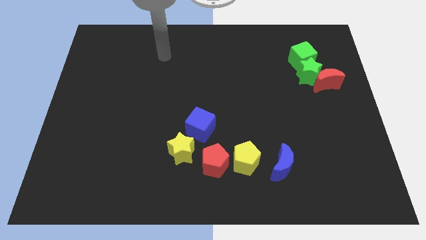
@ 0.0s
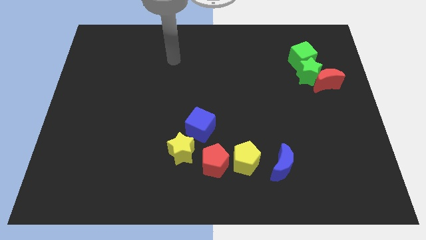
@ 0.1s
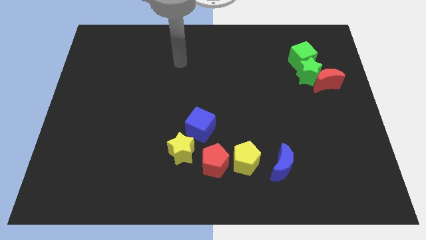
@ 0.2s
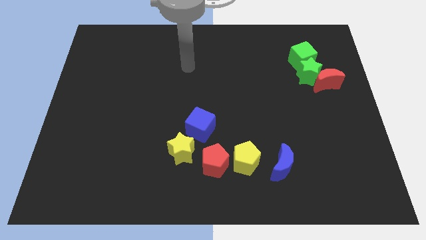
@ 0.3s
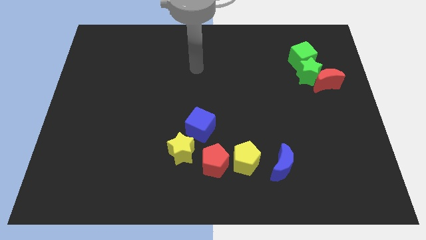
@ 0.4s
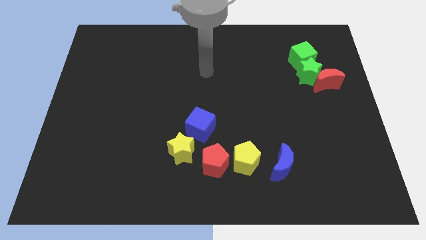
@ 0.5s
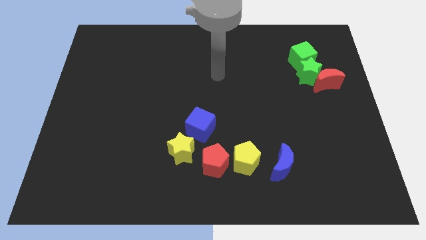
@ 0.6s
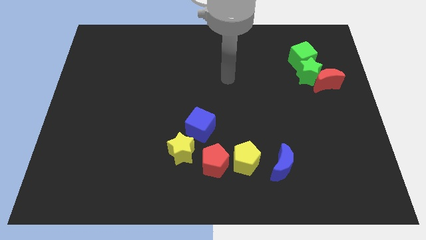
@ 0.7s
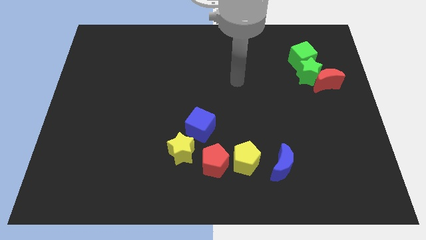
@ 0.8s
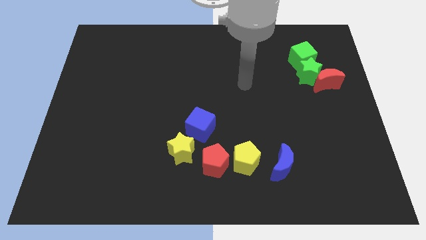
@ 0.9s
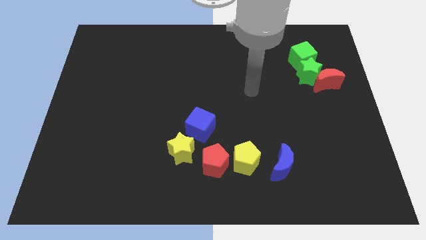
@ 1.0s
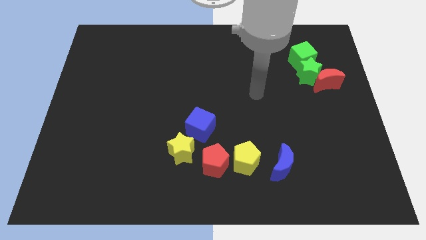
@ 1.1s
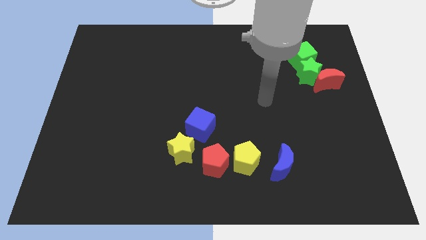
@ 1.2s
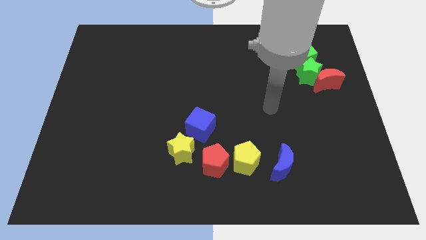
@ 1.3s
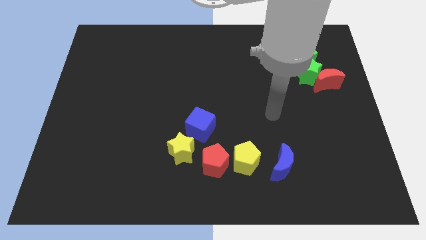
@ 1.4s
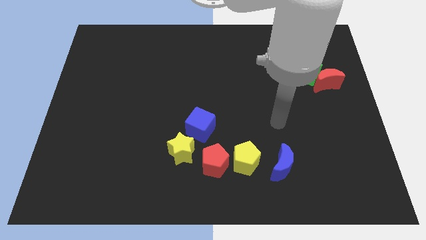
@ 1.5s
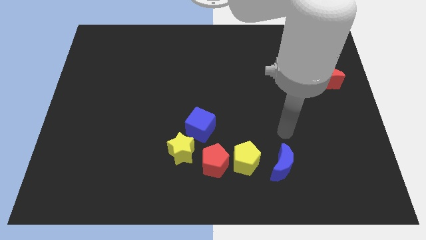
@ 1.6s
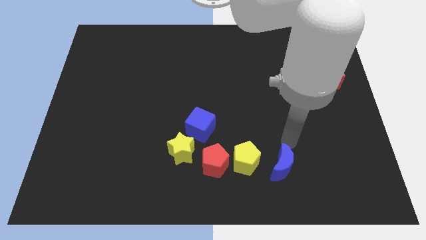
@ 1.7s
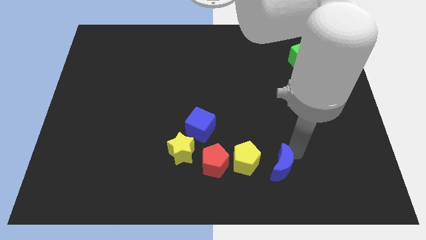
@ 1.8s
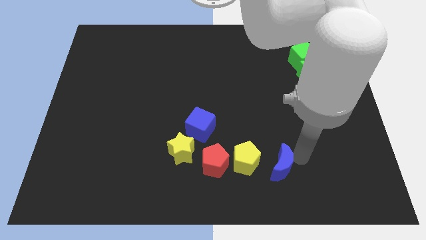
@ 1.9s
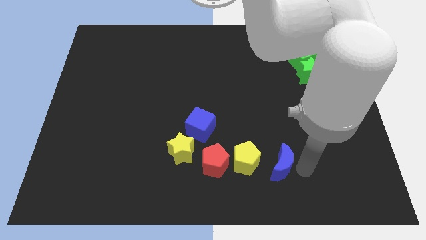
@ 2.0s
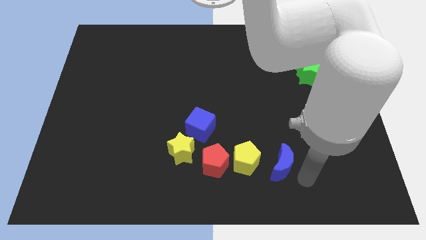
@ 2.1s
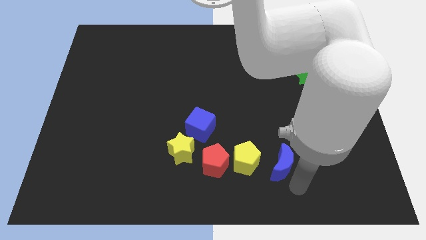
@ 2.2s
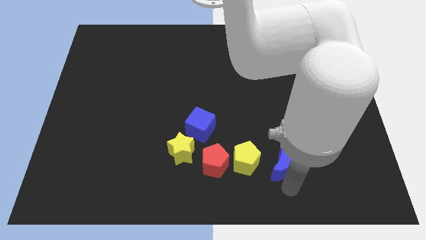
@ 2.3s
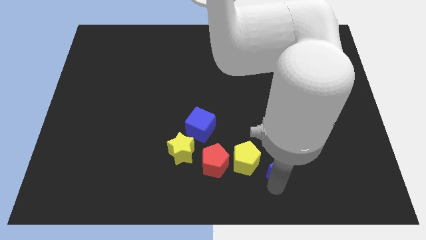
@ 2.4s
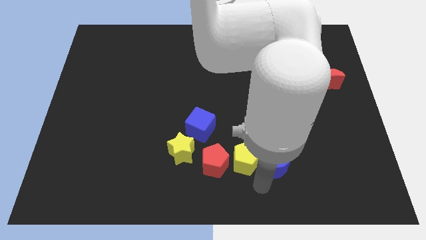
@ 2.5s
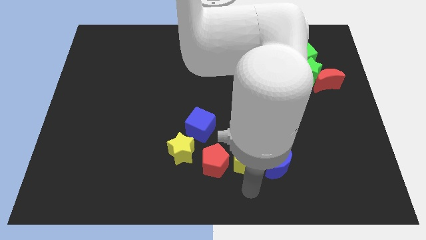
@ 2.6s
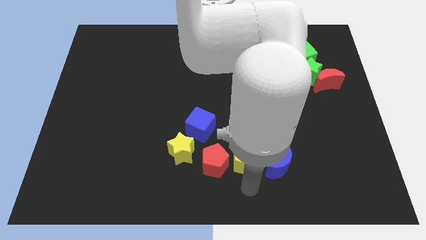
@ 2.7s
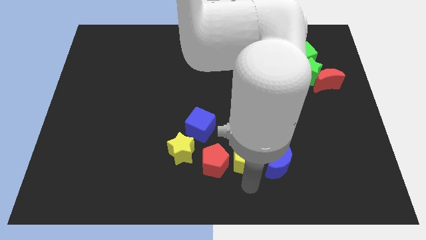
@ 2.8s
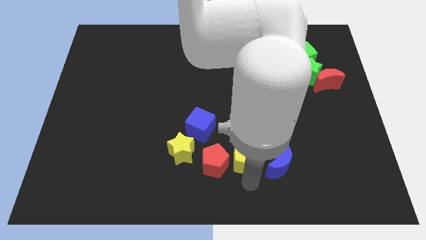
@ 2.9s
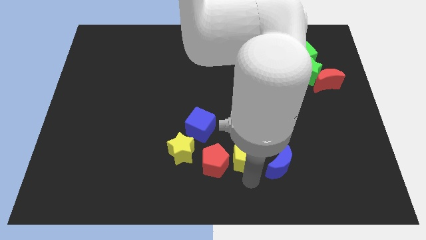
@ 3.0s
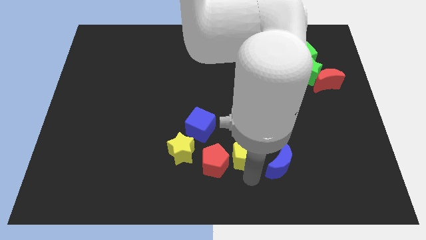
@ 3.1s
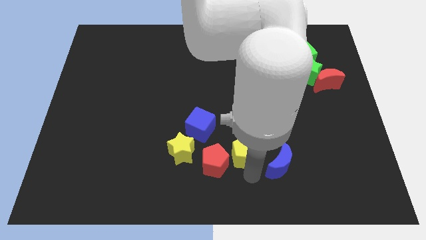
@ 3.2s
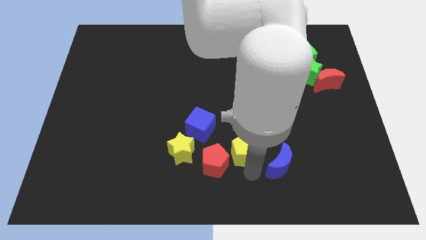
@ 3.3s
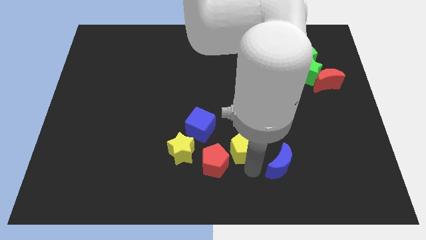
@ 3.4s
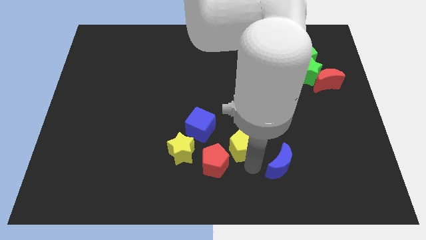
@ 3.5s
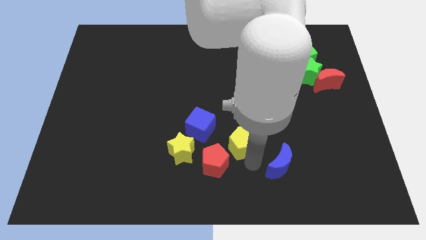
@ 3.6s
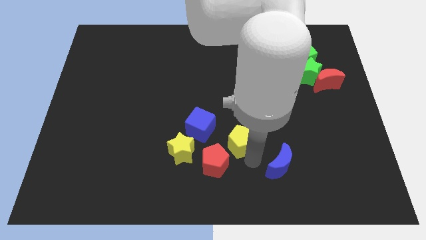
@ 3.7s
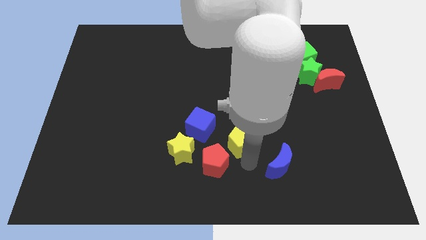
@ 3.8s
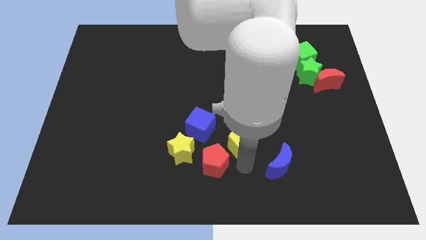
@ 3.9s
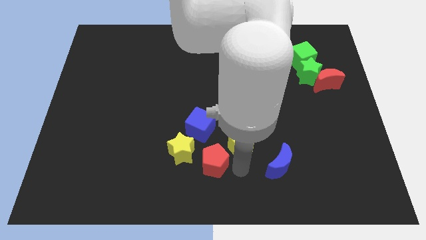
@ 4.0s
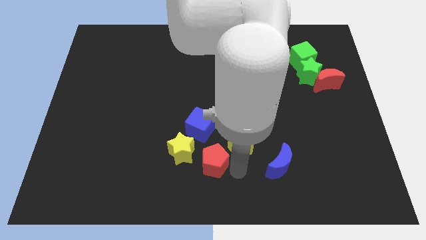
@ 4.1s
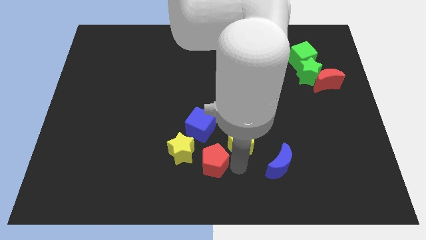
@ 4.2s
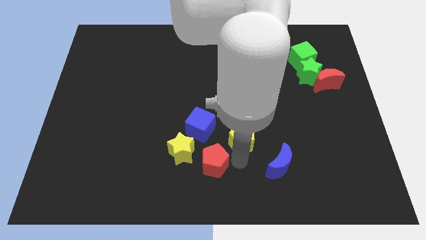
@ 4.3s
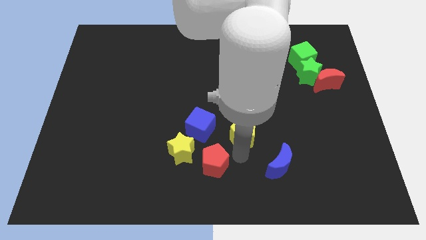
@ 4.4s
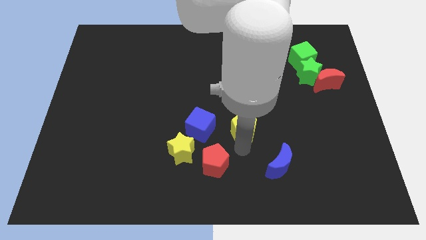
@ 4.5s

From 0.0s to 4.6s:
move the yellow pentagon a bit upwards

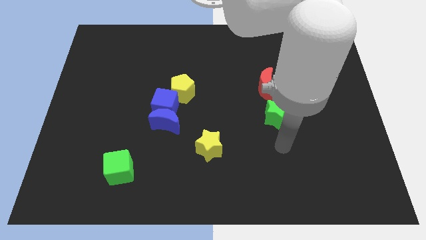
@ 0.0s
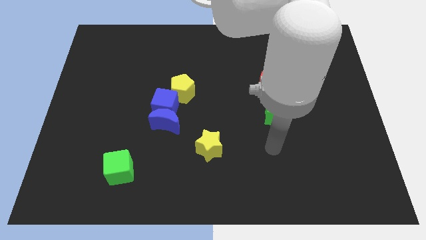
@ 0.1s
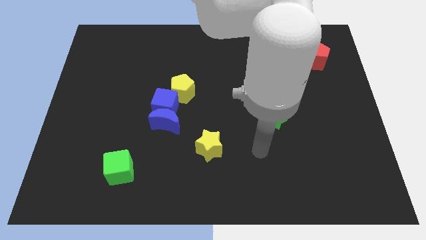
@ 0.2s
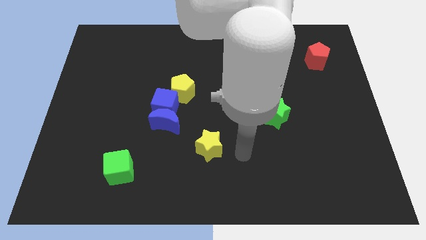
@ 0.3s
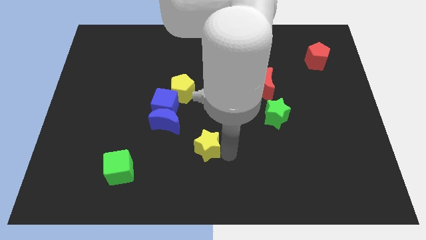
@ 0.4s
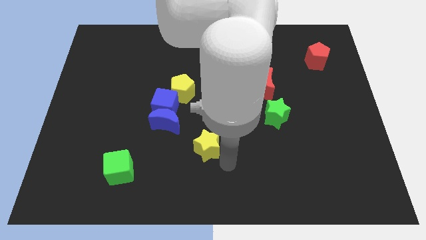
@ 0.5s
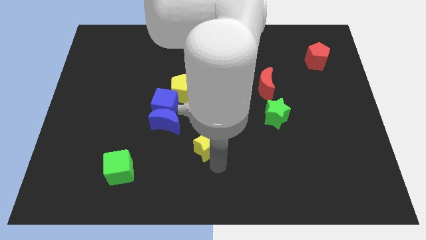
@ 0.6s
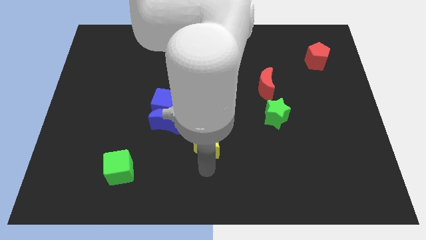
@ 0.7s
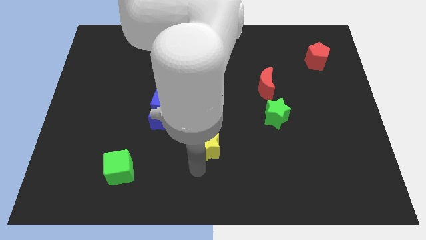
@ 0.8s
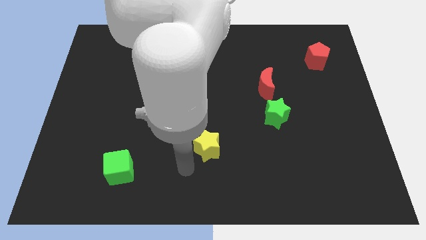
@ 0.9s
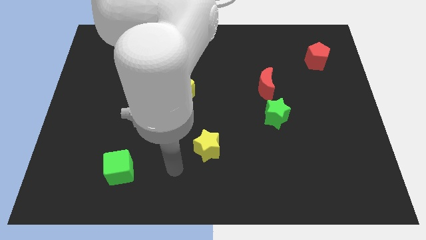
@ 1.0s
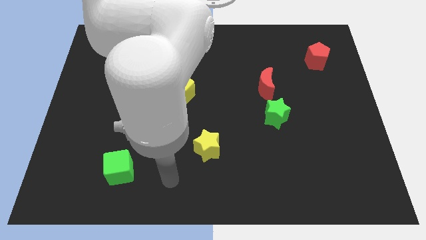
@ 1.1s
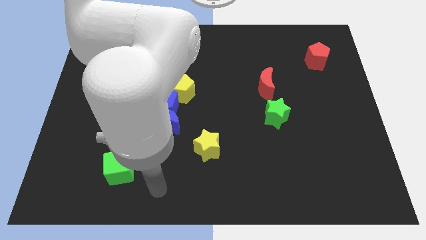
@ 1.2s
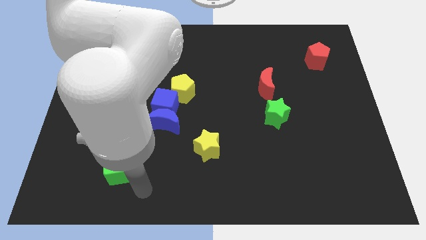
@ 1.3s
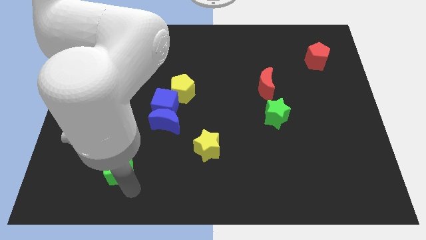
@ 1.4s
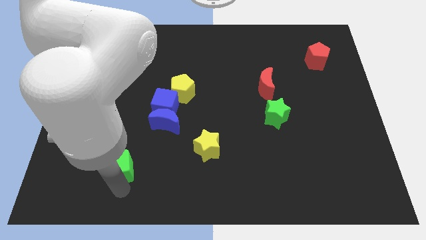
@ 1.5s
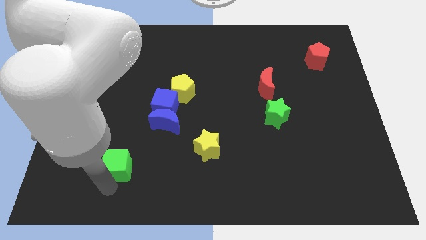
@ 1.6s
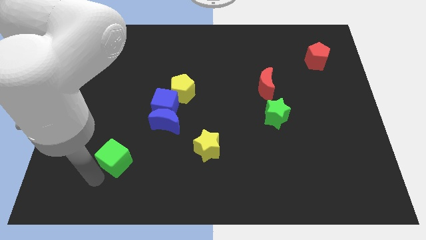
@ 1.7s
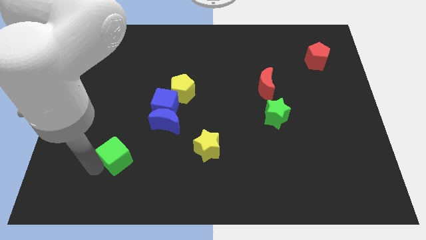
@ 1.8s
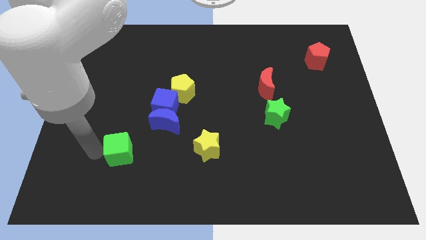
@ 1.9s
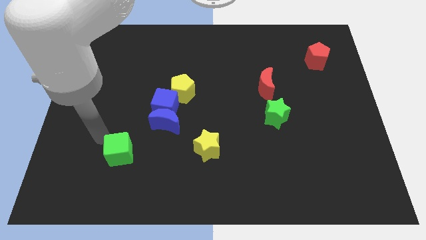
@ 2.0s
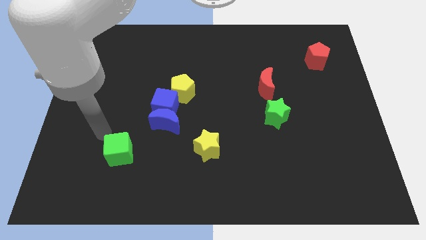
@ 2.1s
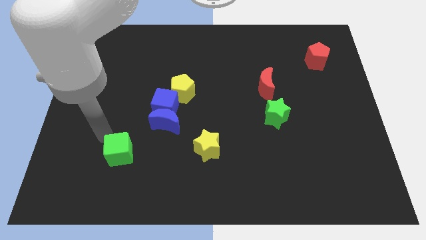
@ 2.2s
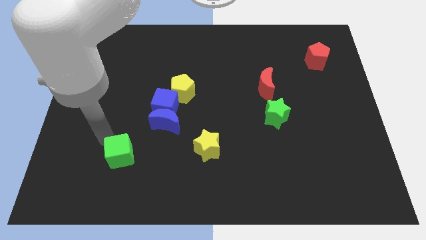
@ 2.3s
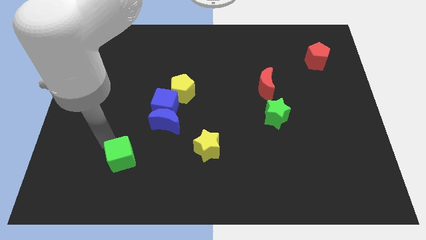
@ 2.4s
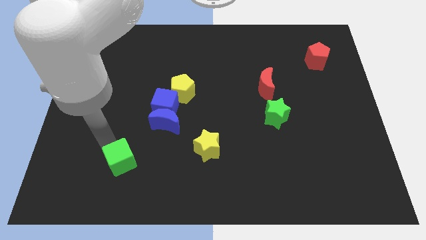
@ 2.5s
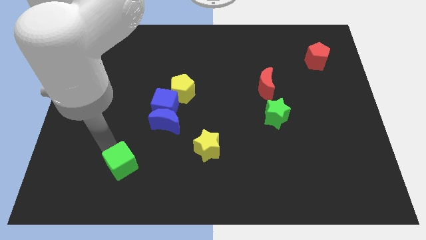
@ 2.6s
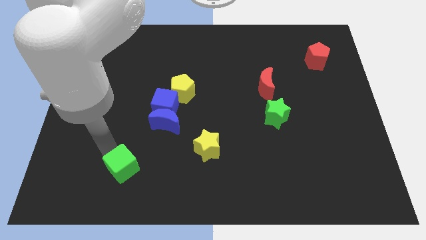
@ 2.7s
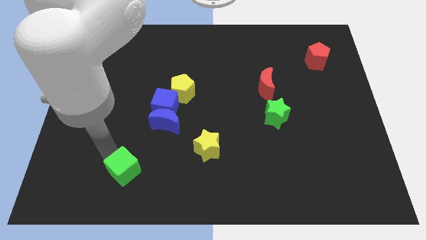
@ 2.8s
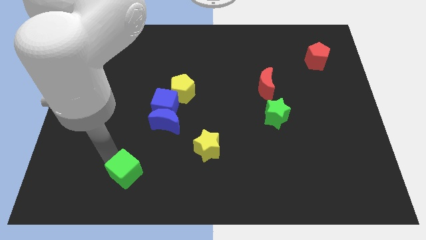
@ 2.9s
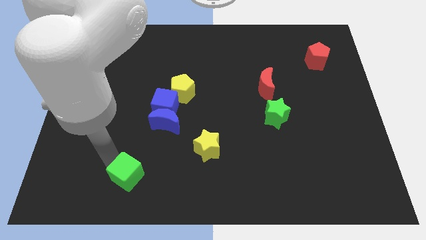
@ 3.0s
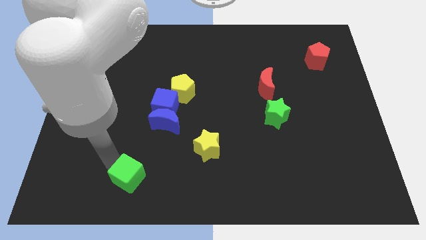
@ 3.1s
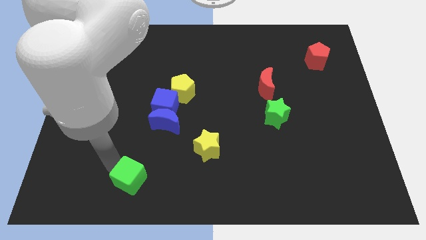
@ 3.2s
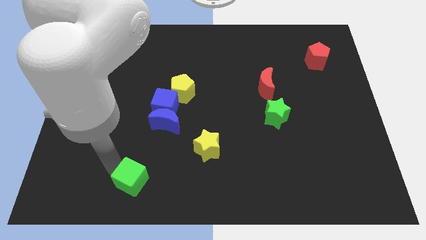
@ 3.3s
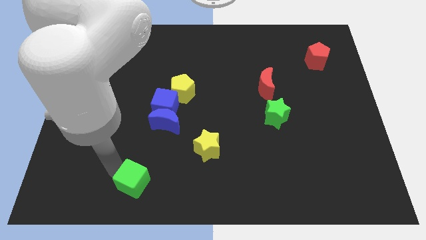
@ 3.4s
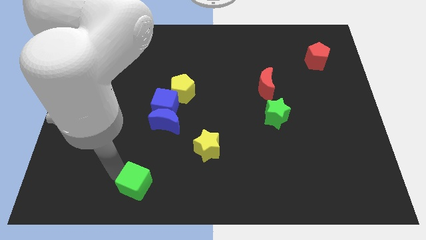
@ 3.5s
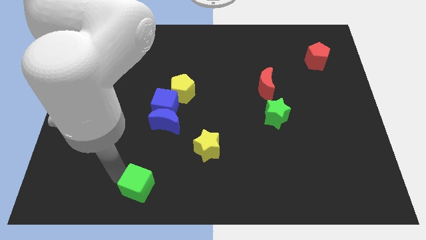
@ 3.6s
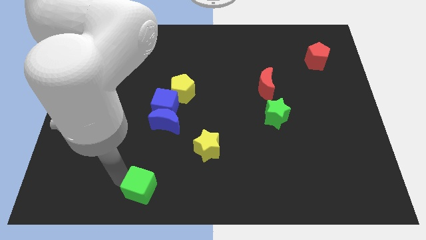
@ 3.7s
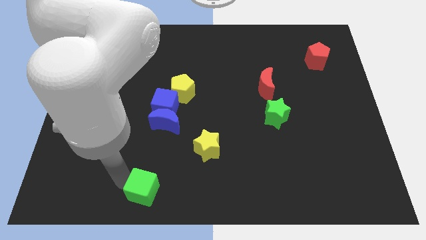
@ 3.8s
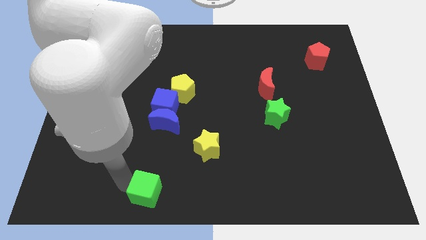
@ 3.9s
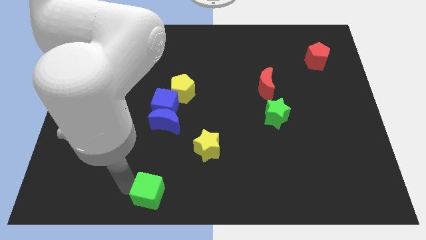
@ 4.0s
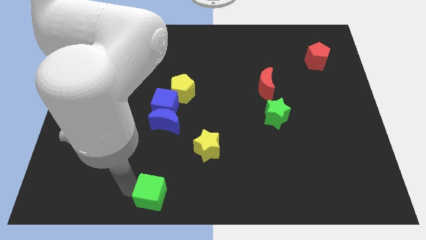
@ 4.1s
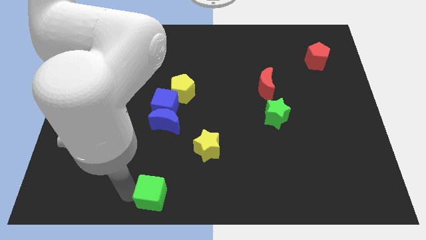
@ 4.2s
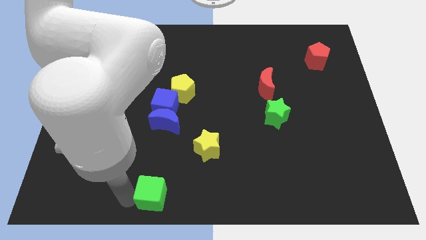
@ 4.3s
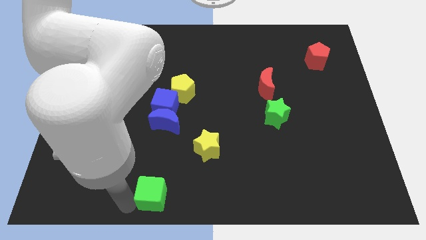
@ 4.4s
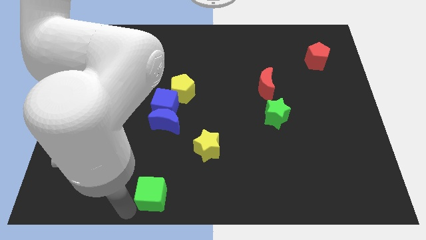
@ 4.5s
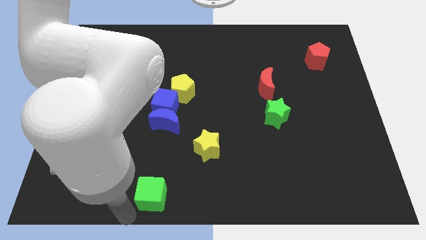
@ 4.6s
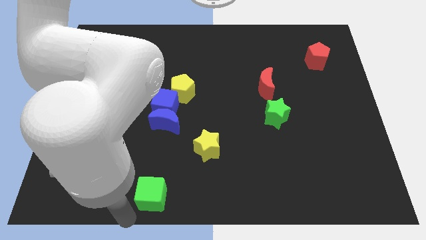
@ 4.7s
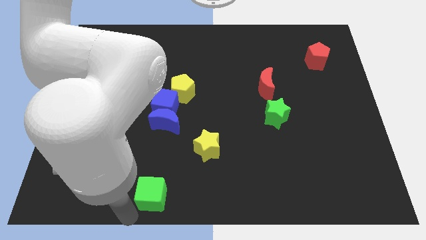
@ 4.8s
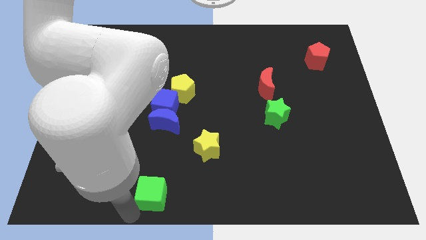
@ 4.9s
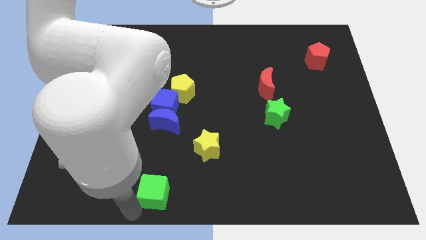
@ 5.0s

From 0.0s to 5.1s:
slide the green cube to the right slightly
